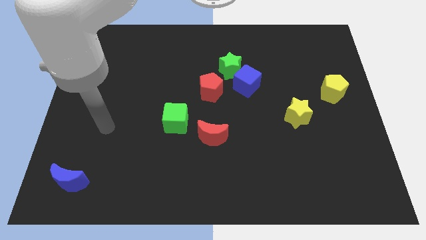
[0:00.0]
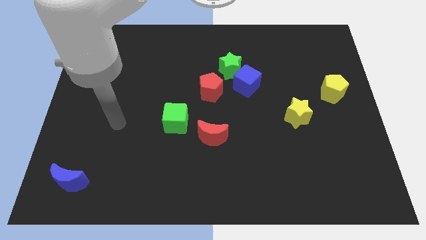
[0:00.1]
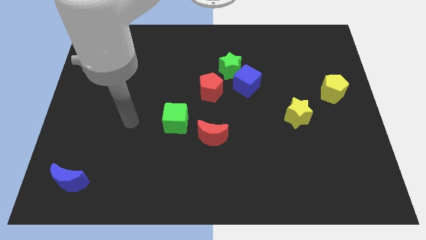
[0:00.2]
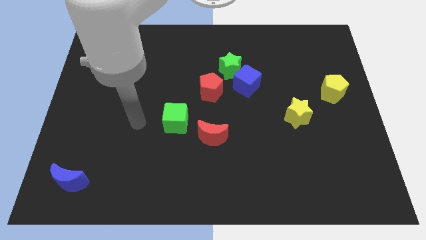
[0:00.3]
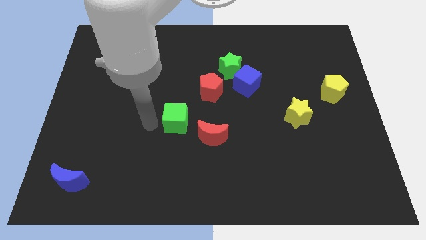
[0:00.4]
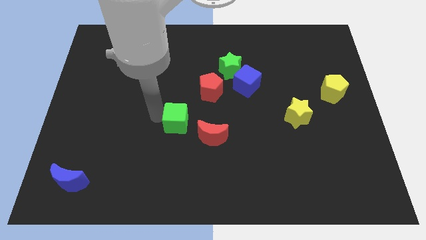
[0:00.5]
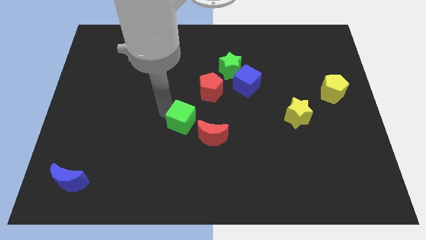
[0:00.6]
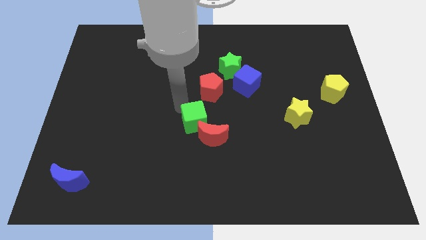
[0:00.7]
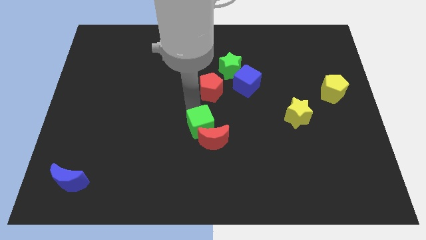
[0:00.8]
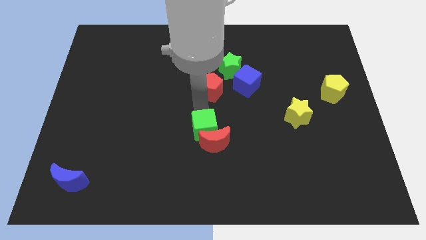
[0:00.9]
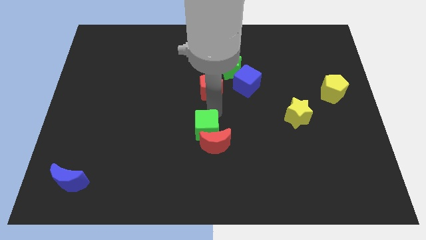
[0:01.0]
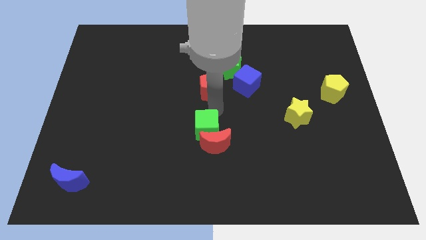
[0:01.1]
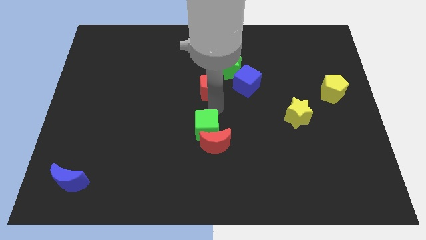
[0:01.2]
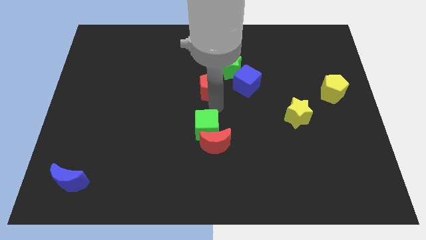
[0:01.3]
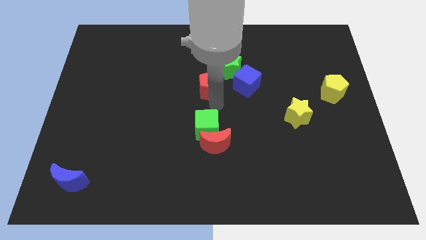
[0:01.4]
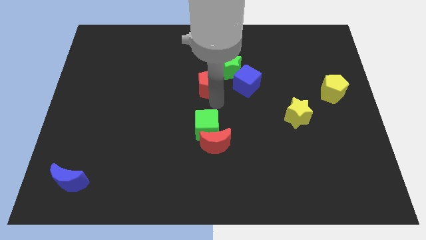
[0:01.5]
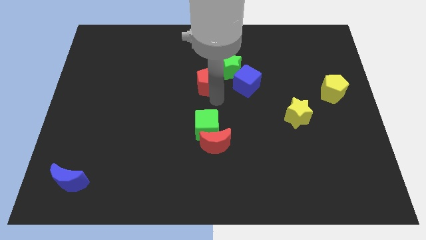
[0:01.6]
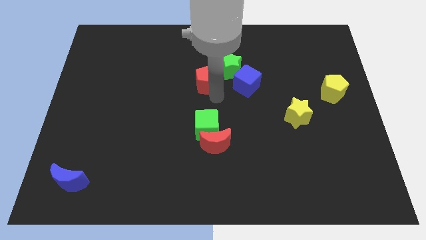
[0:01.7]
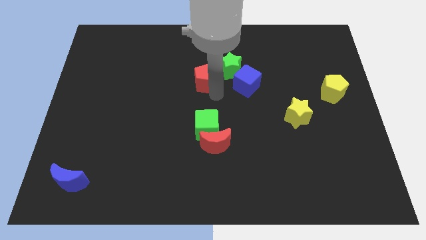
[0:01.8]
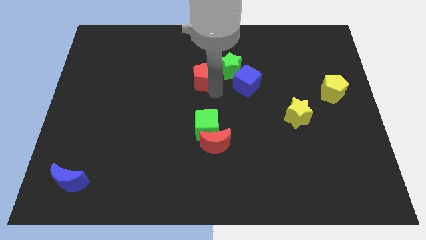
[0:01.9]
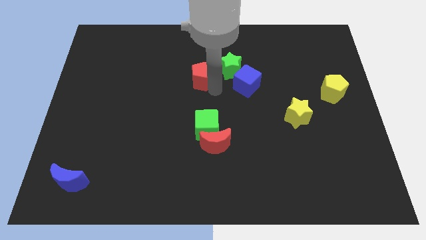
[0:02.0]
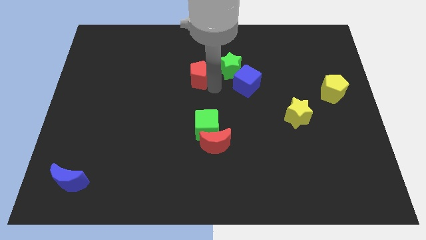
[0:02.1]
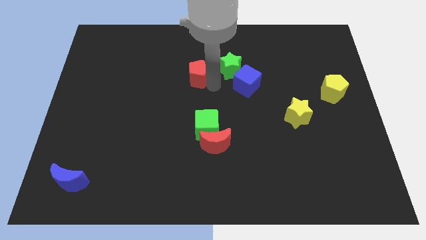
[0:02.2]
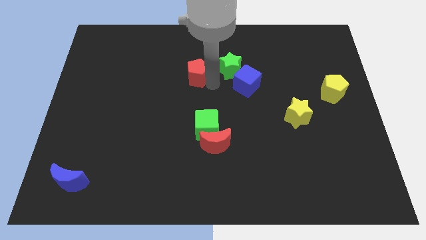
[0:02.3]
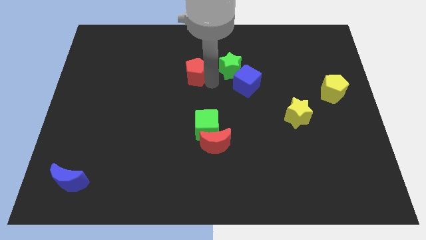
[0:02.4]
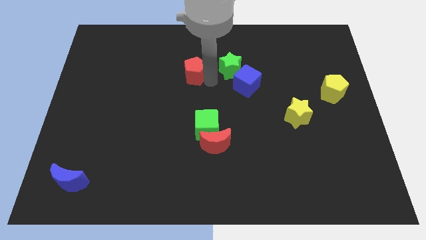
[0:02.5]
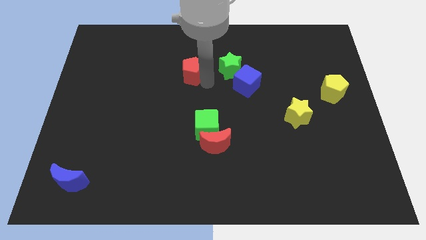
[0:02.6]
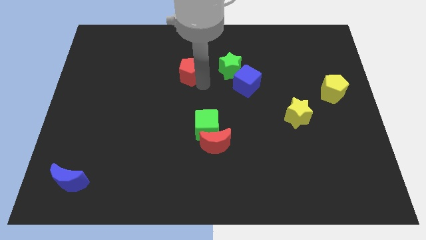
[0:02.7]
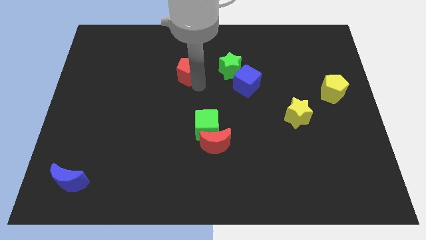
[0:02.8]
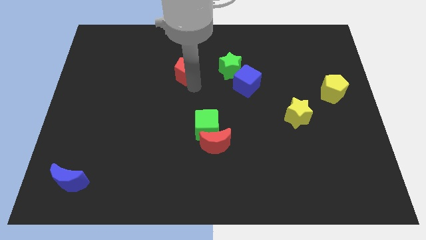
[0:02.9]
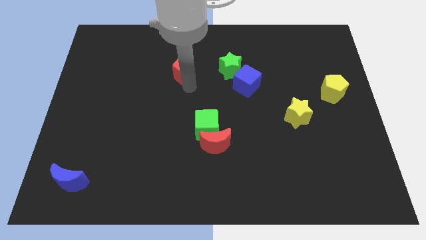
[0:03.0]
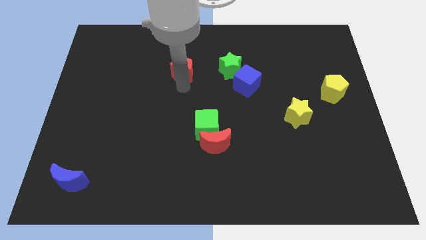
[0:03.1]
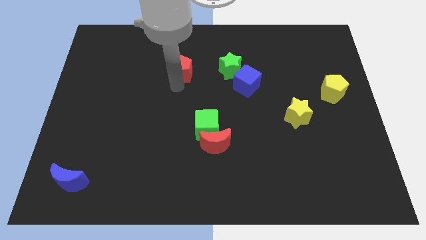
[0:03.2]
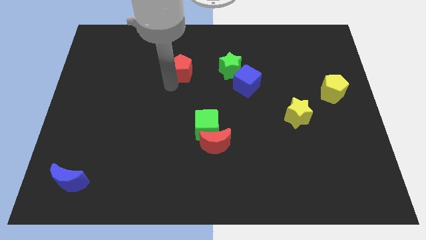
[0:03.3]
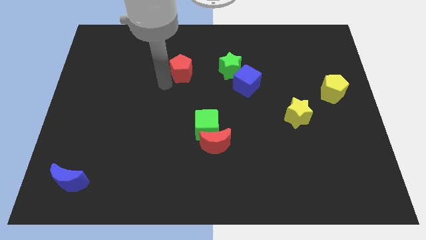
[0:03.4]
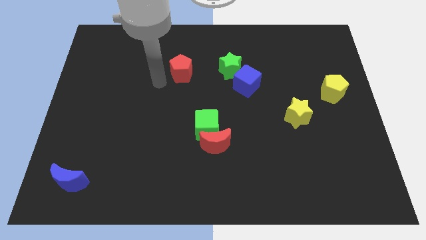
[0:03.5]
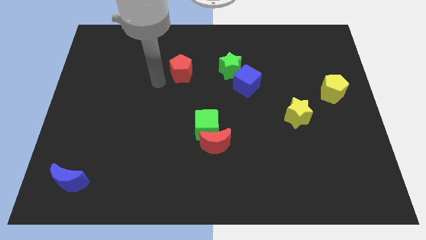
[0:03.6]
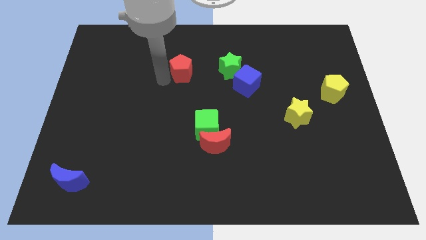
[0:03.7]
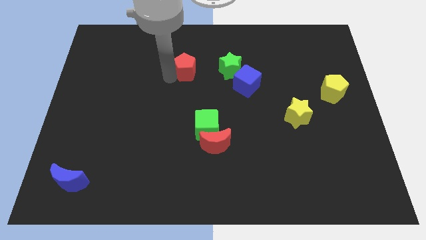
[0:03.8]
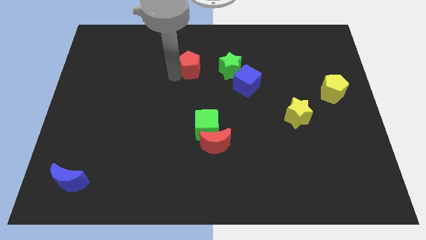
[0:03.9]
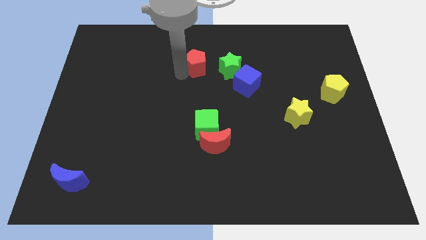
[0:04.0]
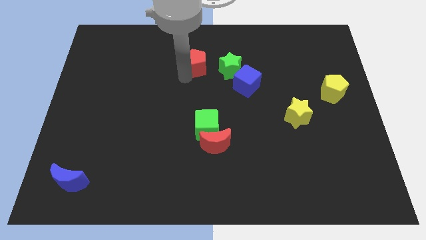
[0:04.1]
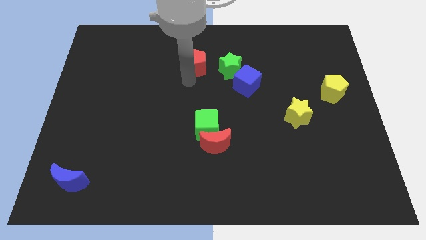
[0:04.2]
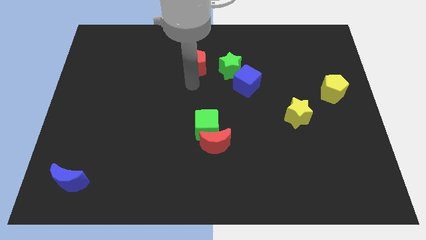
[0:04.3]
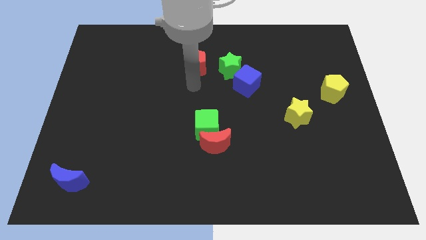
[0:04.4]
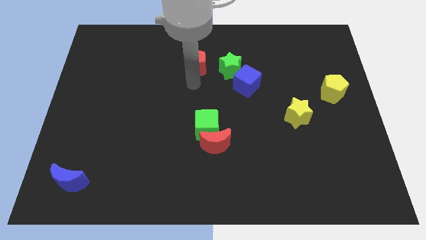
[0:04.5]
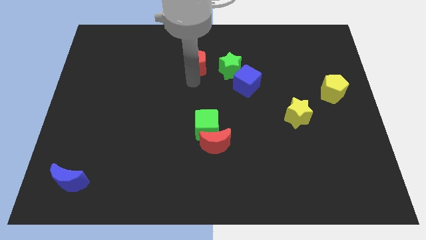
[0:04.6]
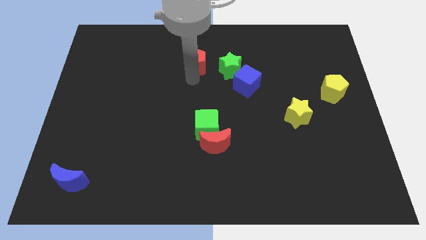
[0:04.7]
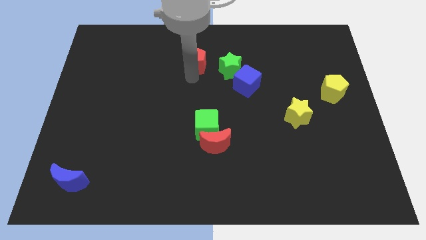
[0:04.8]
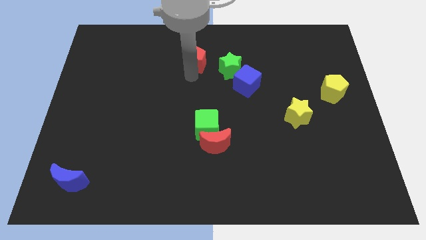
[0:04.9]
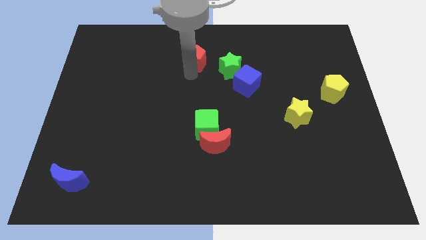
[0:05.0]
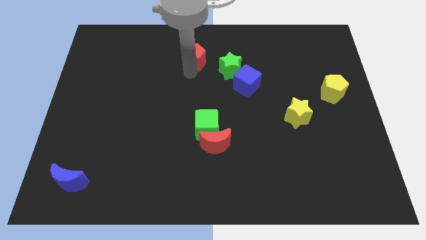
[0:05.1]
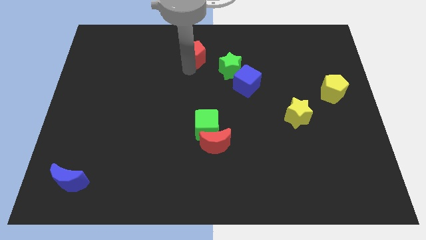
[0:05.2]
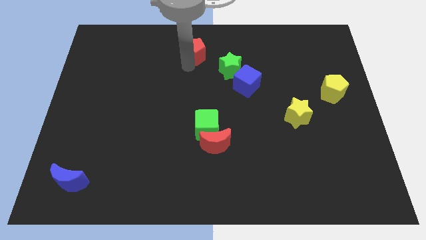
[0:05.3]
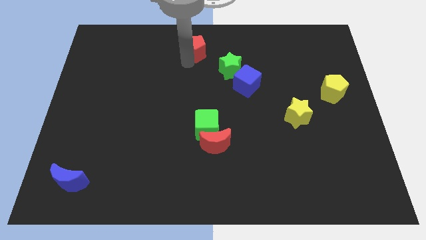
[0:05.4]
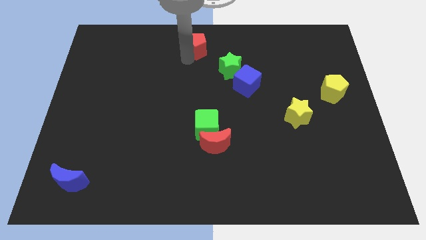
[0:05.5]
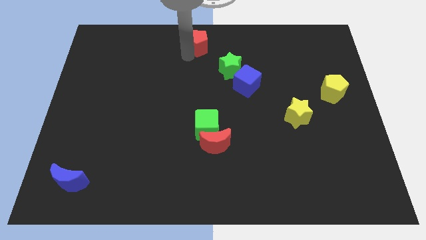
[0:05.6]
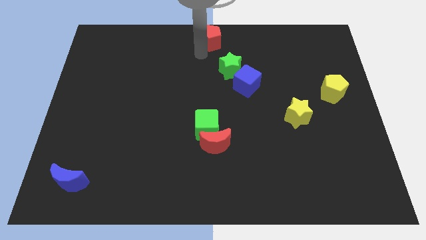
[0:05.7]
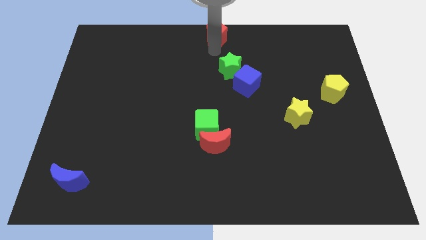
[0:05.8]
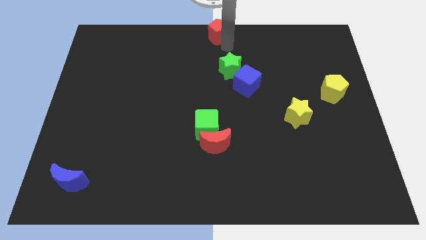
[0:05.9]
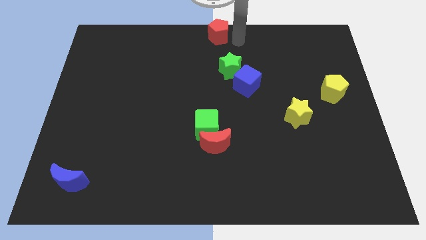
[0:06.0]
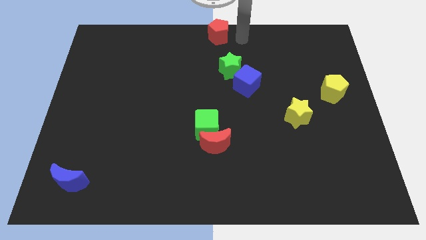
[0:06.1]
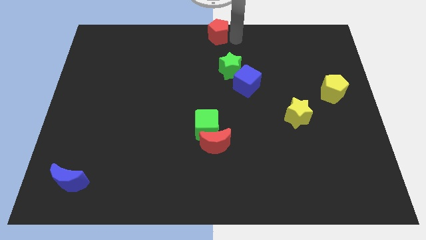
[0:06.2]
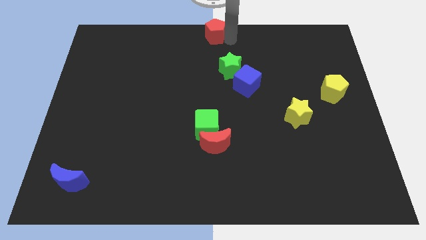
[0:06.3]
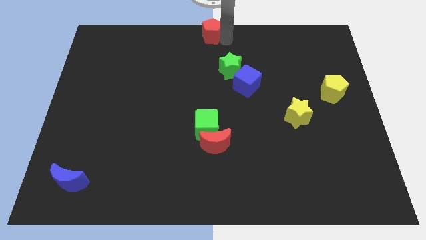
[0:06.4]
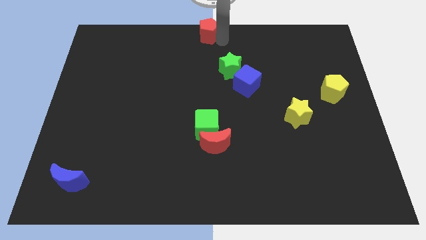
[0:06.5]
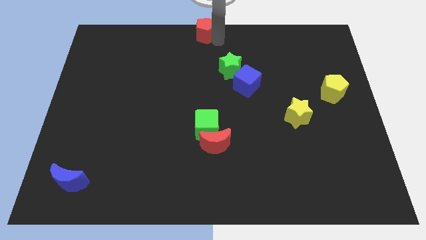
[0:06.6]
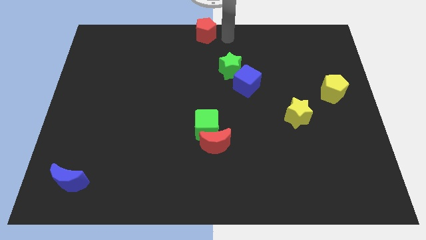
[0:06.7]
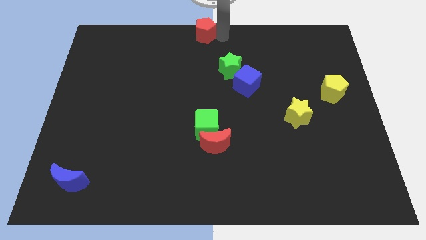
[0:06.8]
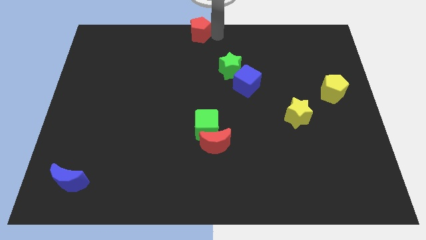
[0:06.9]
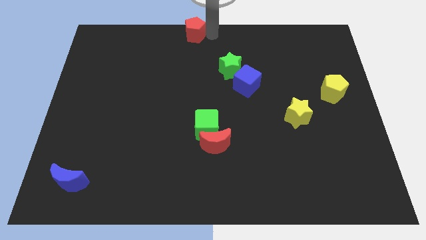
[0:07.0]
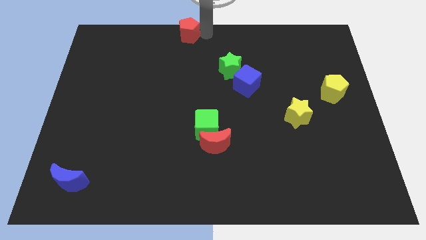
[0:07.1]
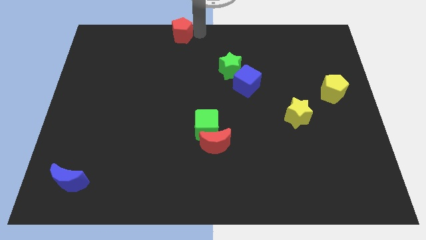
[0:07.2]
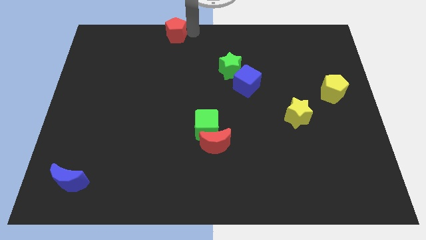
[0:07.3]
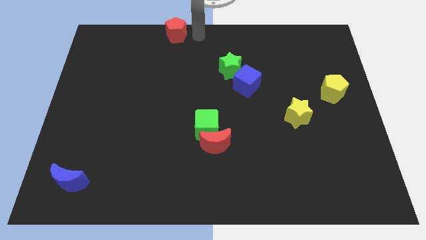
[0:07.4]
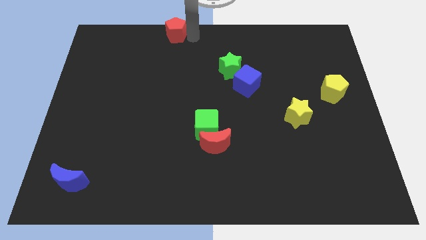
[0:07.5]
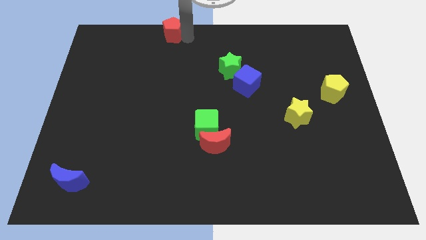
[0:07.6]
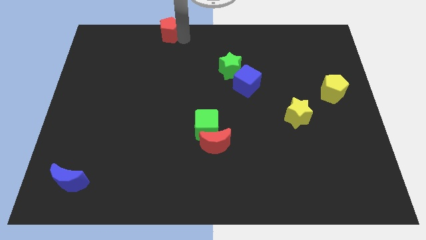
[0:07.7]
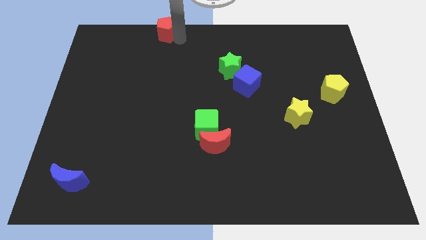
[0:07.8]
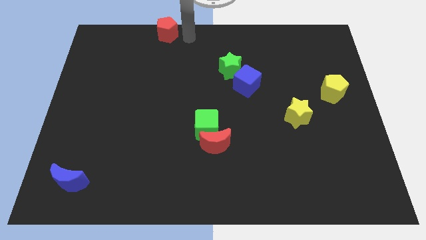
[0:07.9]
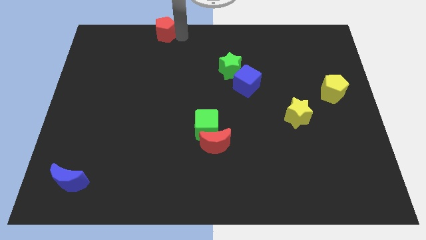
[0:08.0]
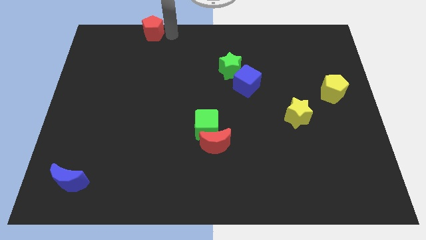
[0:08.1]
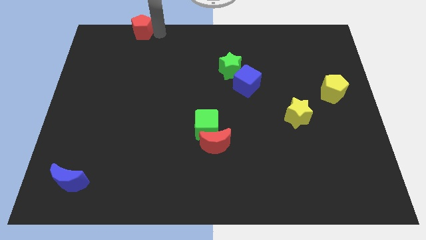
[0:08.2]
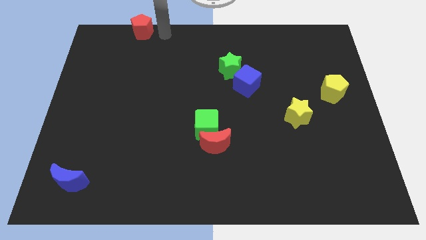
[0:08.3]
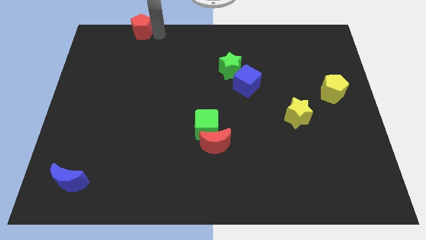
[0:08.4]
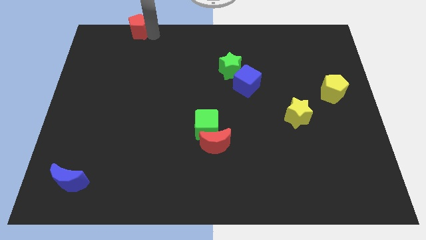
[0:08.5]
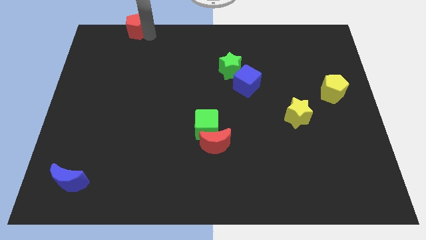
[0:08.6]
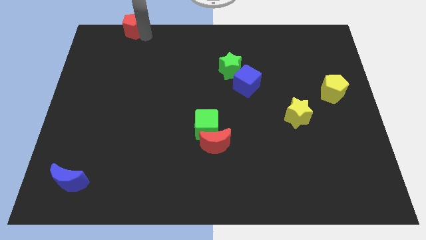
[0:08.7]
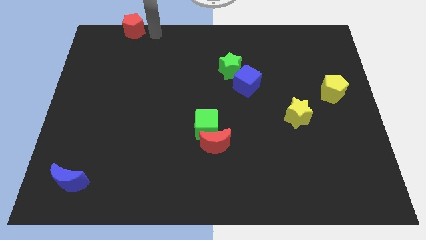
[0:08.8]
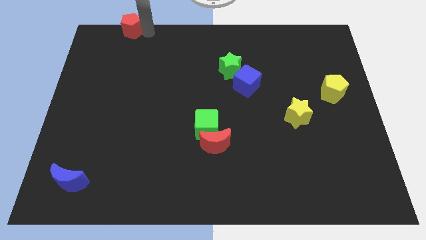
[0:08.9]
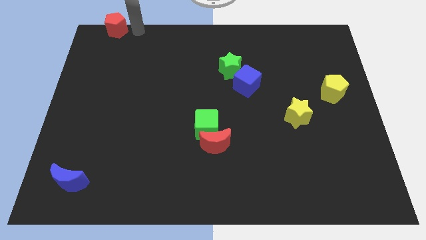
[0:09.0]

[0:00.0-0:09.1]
move the red pentagon to the top left corner
